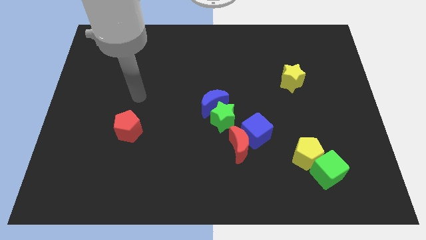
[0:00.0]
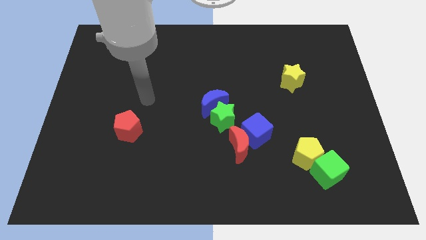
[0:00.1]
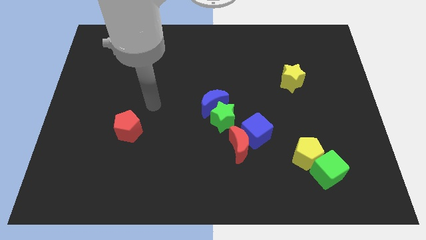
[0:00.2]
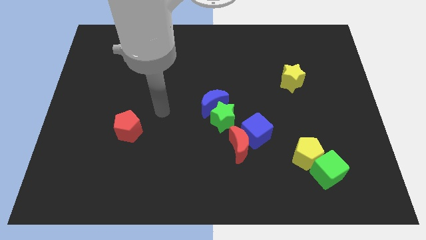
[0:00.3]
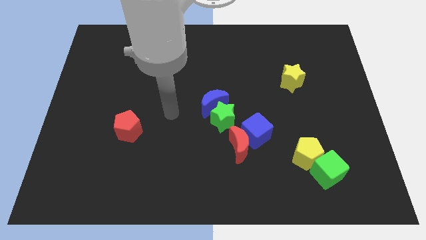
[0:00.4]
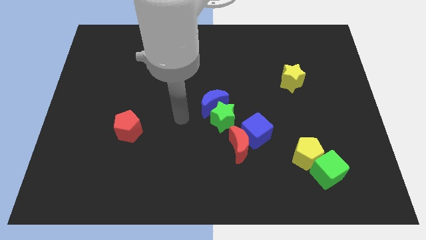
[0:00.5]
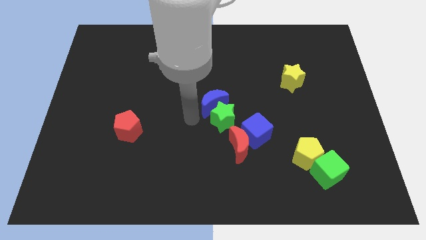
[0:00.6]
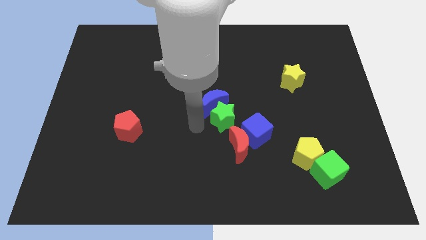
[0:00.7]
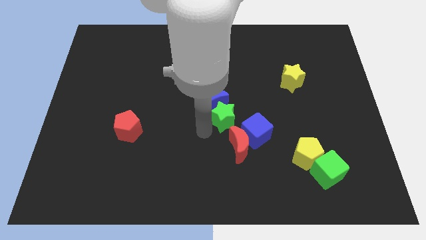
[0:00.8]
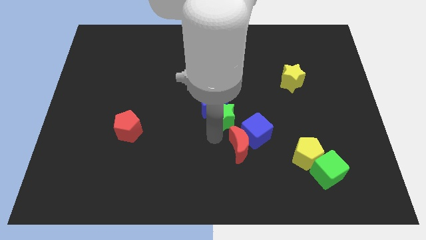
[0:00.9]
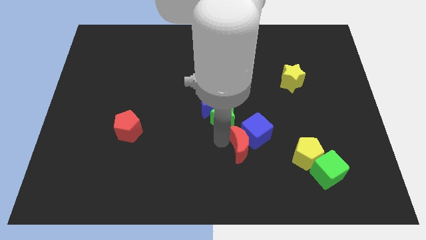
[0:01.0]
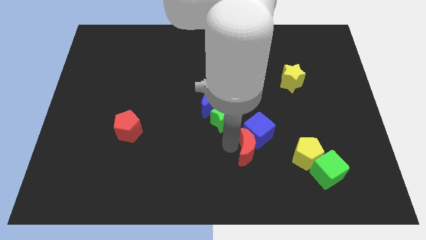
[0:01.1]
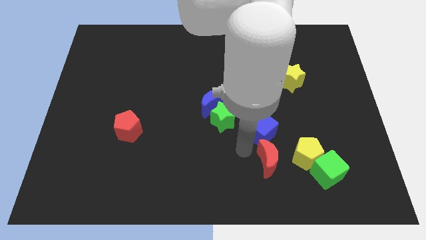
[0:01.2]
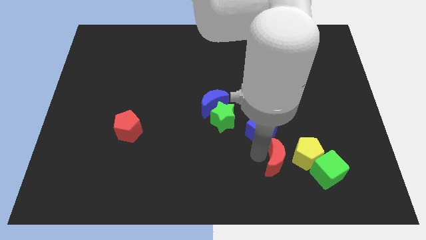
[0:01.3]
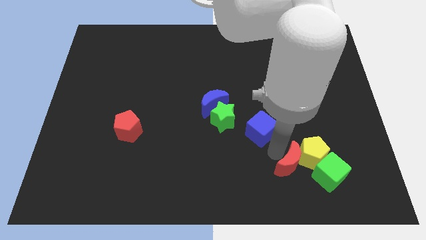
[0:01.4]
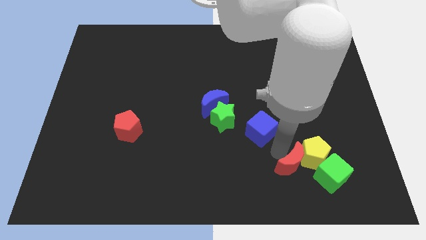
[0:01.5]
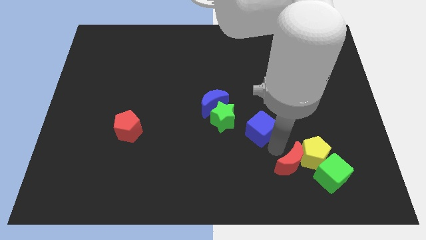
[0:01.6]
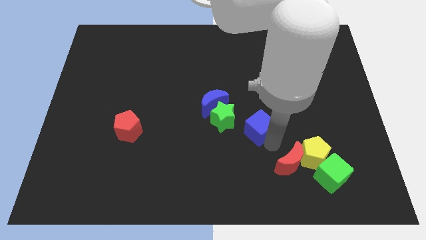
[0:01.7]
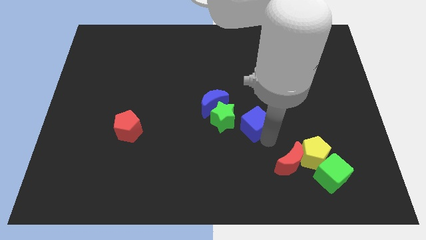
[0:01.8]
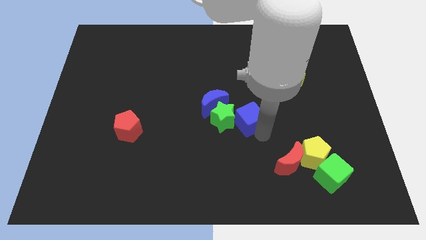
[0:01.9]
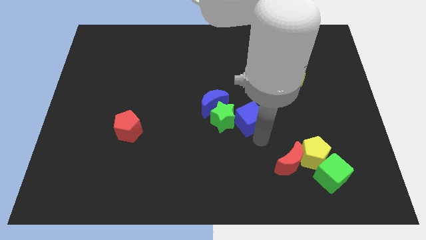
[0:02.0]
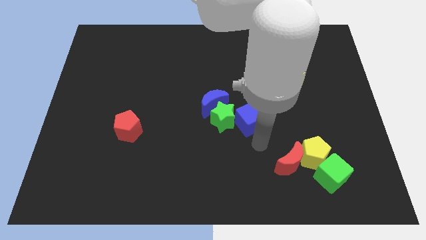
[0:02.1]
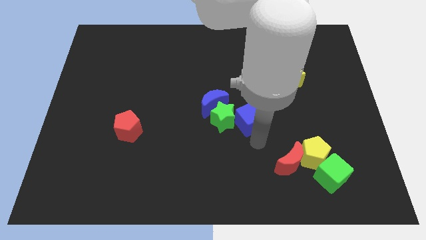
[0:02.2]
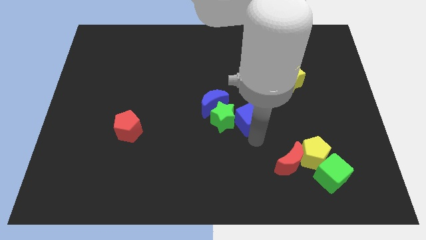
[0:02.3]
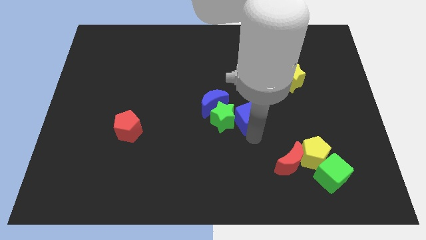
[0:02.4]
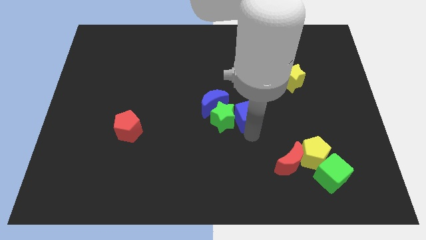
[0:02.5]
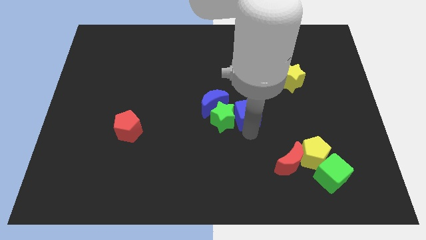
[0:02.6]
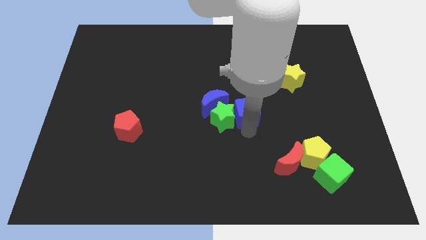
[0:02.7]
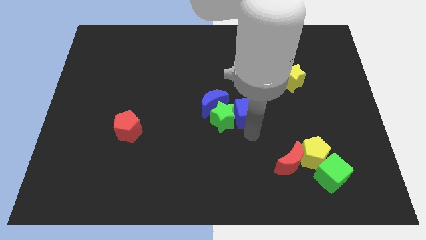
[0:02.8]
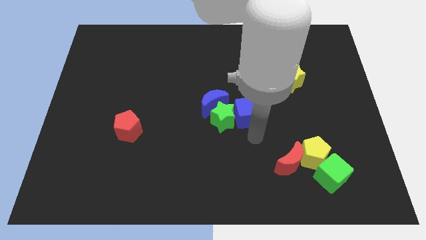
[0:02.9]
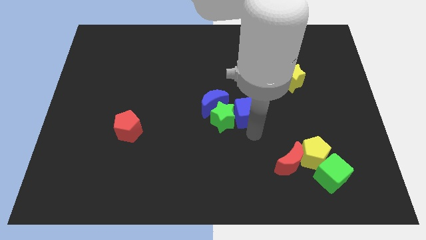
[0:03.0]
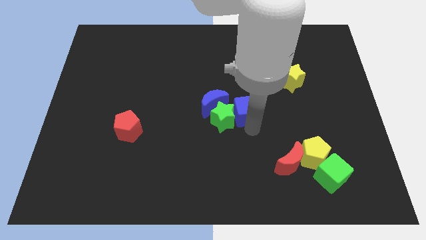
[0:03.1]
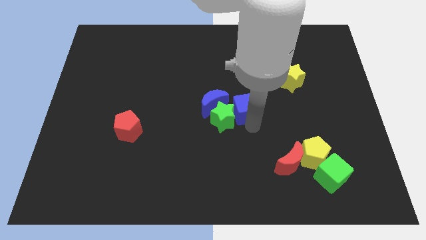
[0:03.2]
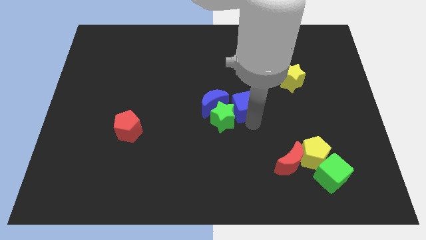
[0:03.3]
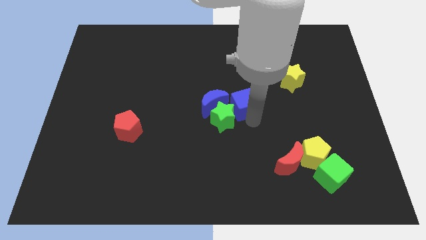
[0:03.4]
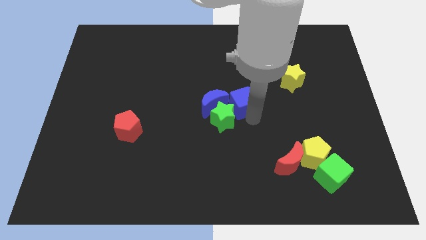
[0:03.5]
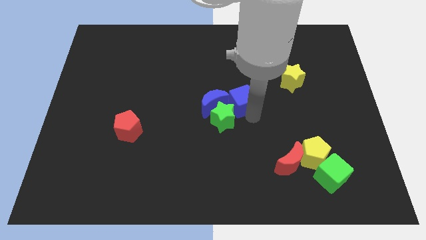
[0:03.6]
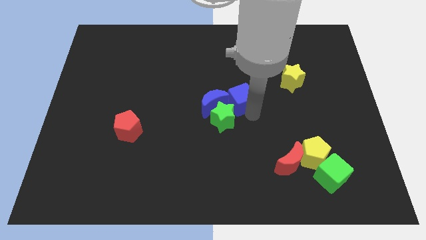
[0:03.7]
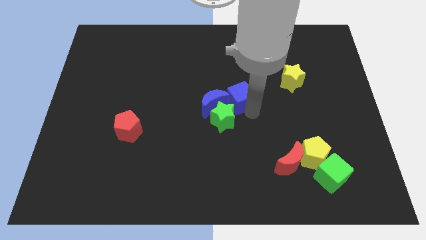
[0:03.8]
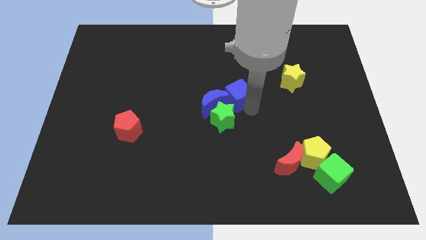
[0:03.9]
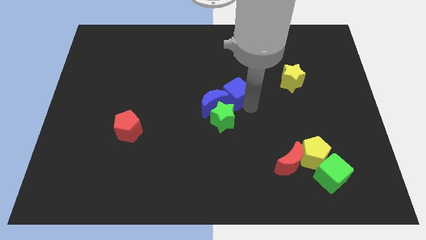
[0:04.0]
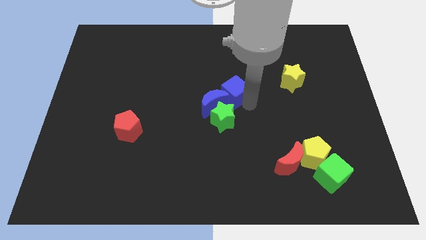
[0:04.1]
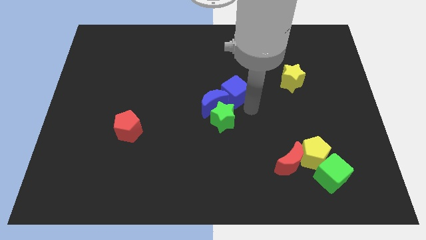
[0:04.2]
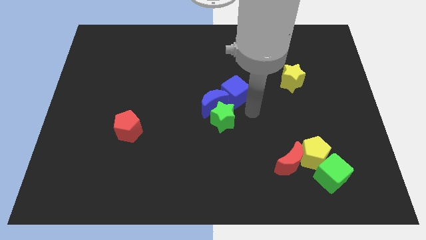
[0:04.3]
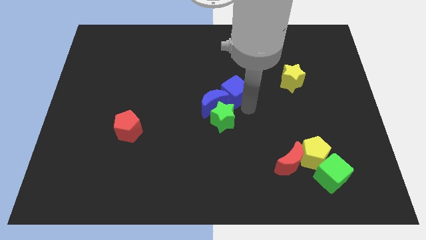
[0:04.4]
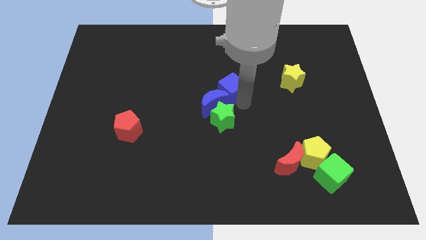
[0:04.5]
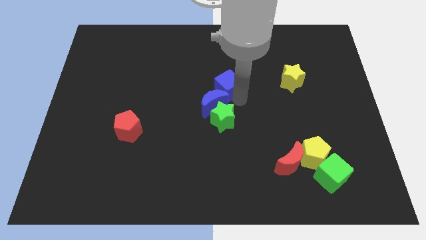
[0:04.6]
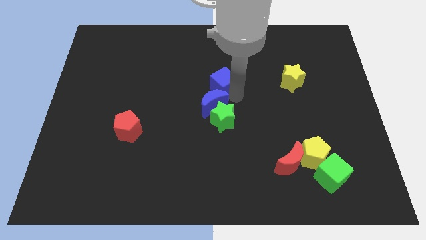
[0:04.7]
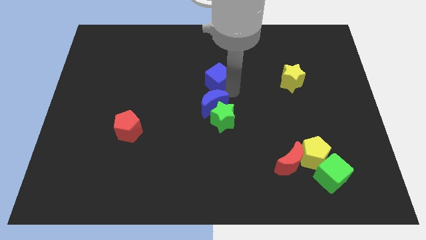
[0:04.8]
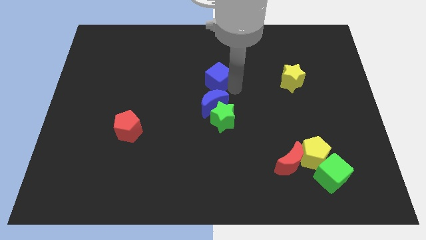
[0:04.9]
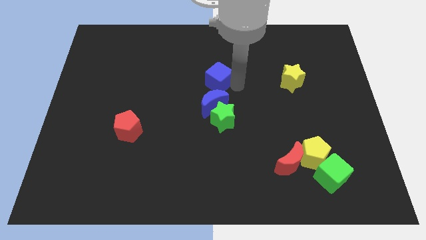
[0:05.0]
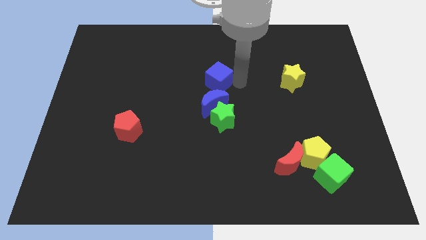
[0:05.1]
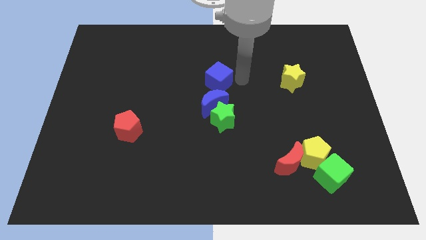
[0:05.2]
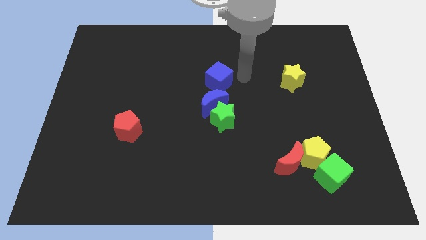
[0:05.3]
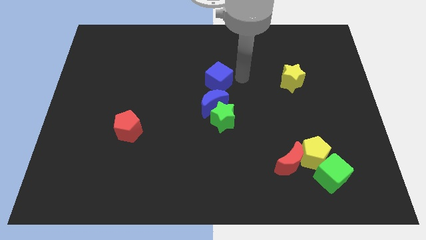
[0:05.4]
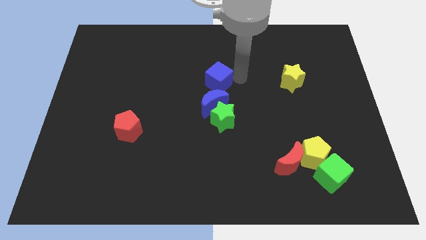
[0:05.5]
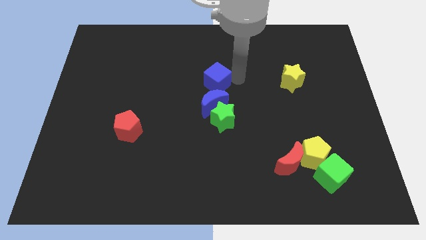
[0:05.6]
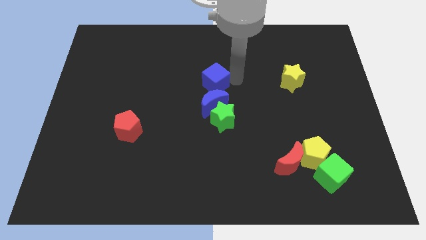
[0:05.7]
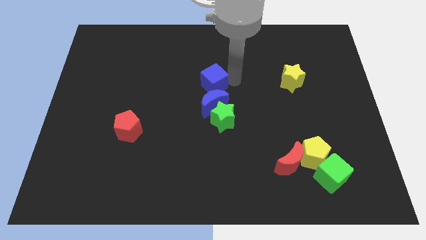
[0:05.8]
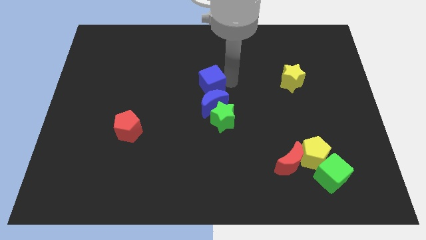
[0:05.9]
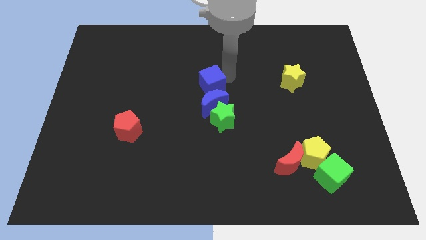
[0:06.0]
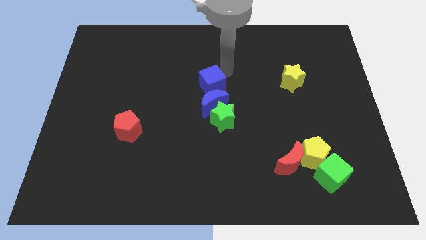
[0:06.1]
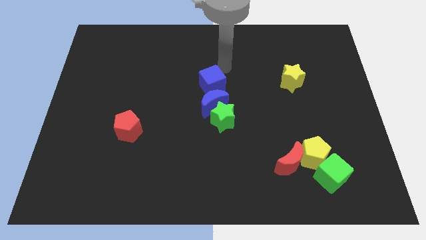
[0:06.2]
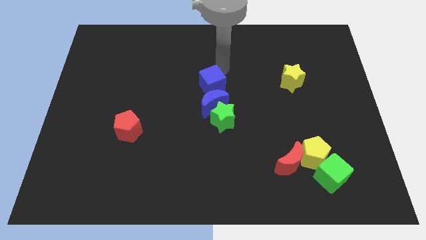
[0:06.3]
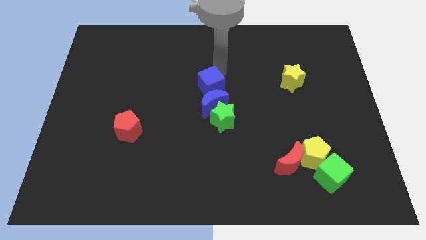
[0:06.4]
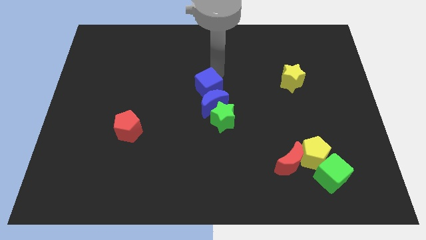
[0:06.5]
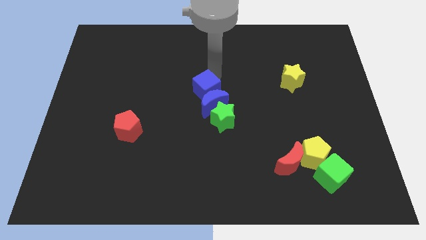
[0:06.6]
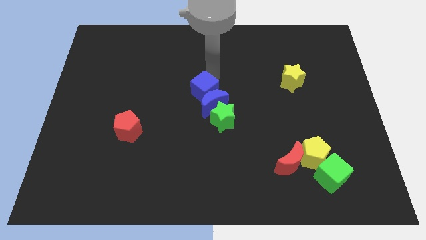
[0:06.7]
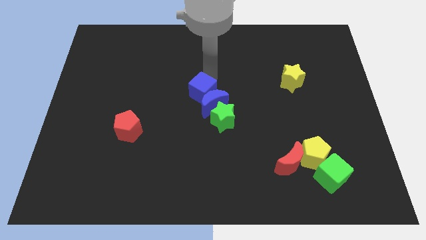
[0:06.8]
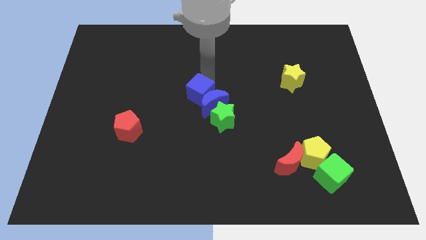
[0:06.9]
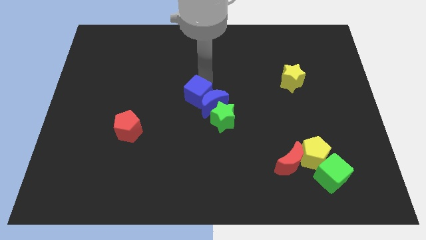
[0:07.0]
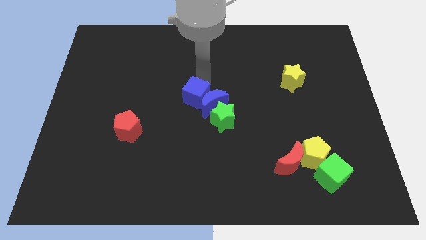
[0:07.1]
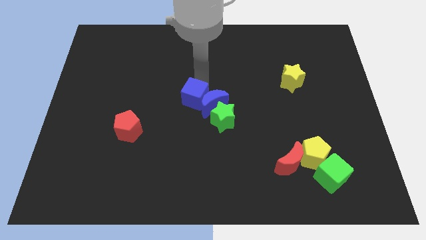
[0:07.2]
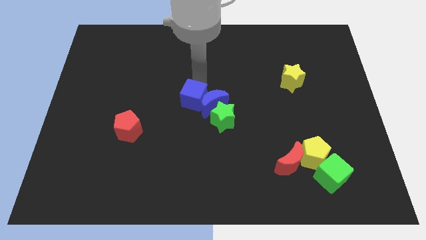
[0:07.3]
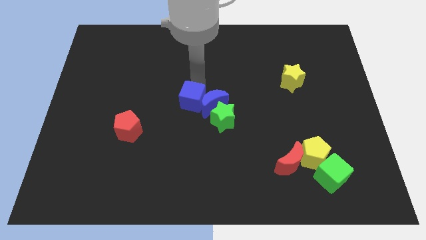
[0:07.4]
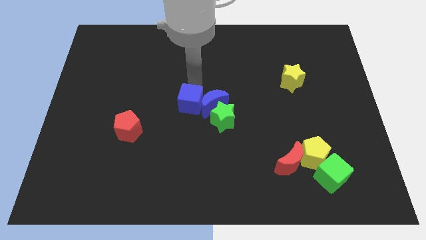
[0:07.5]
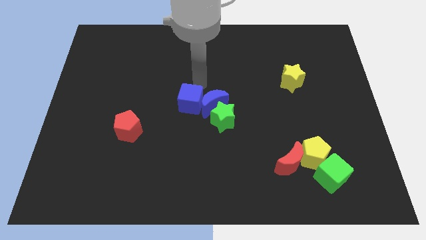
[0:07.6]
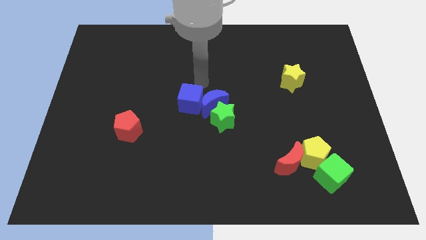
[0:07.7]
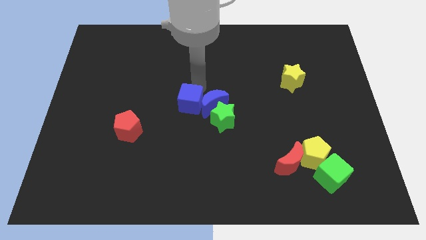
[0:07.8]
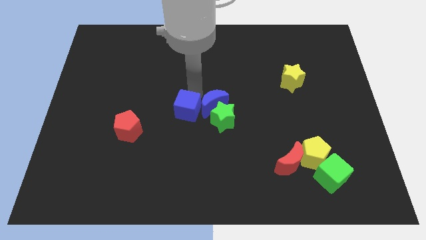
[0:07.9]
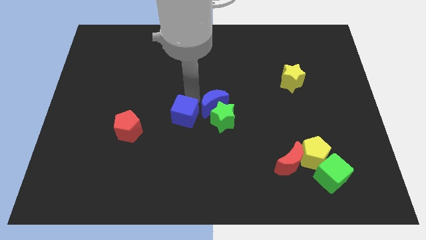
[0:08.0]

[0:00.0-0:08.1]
push the blue cube to the right side of the red pentagon
